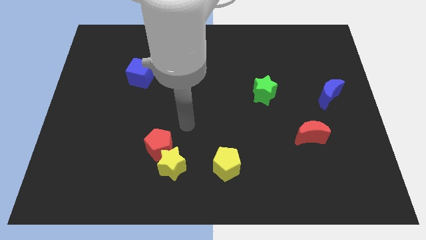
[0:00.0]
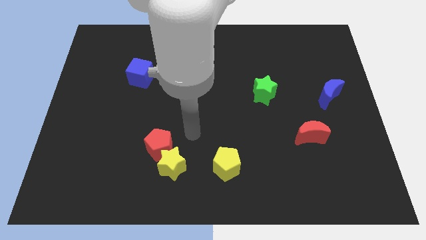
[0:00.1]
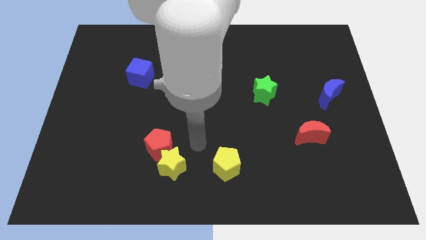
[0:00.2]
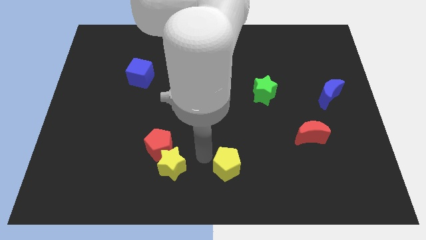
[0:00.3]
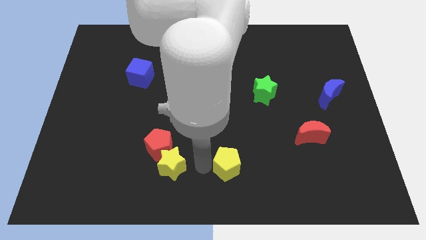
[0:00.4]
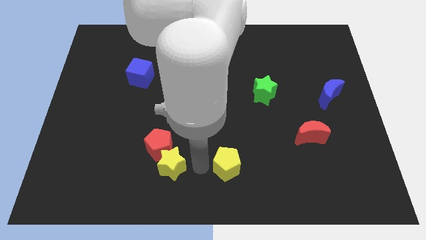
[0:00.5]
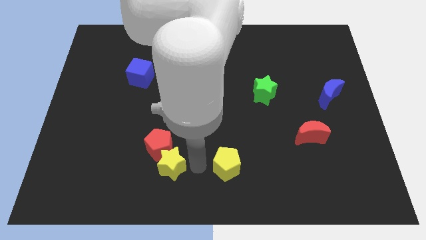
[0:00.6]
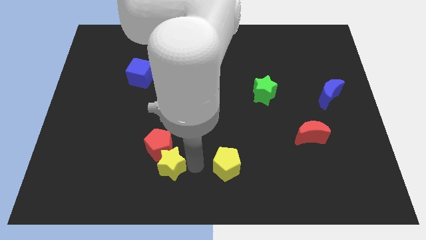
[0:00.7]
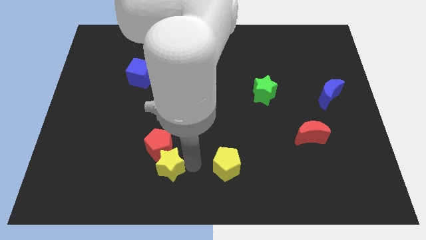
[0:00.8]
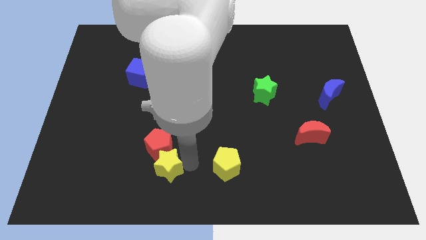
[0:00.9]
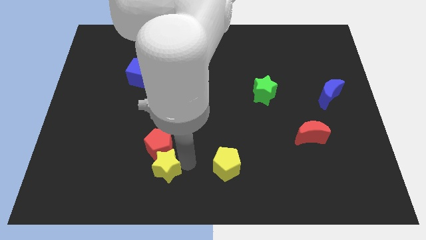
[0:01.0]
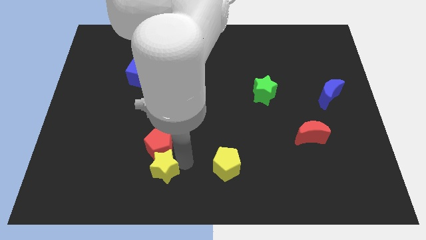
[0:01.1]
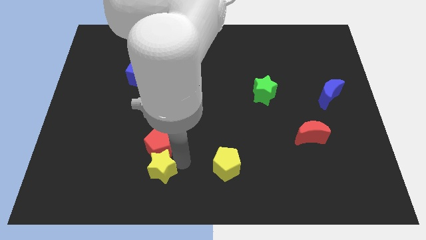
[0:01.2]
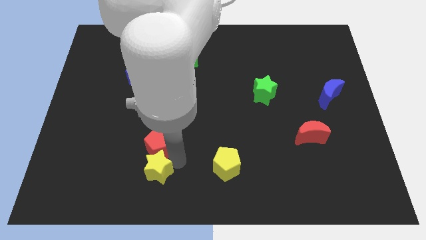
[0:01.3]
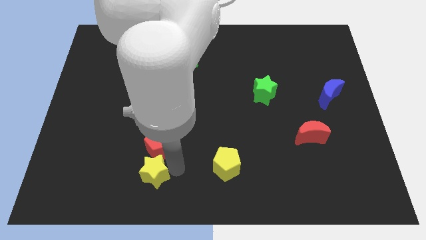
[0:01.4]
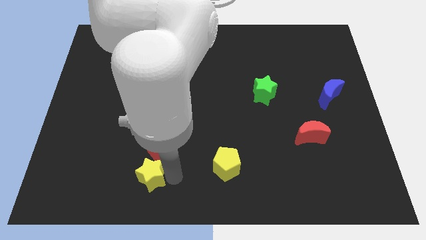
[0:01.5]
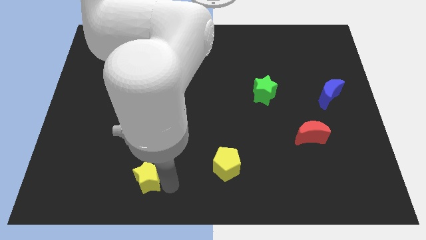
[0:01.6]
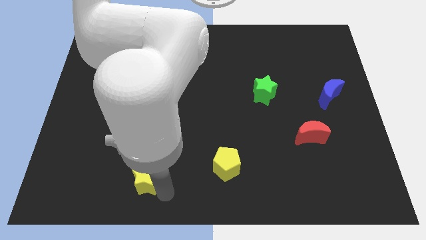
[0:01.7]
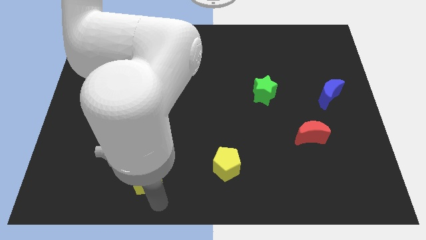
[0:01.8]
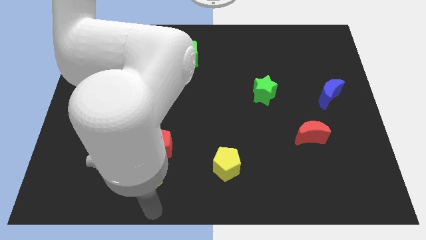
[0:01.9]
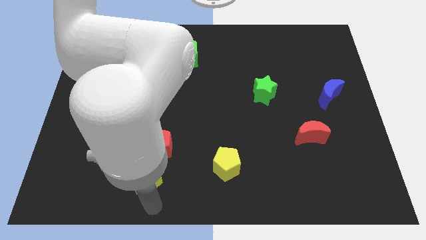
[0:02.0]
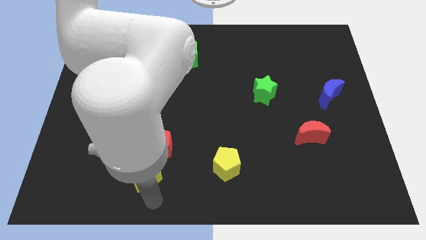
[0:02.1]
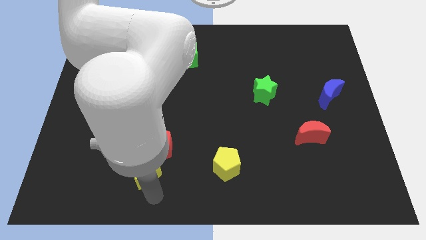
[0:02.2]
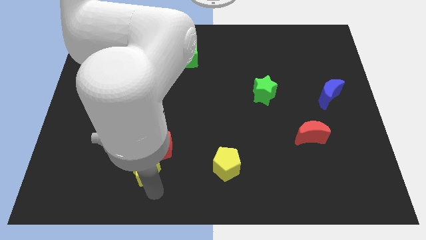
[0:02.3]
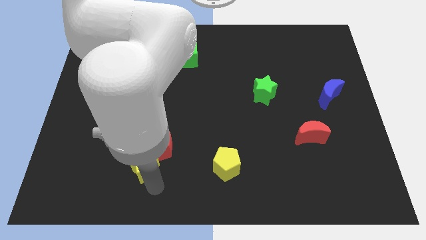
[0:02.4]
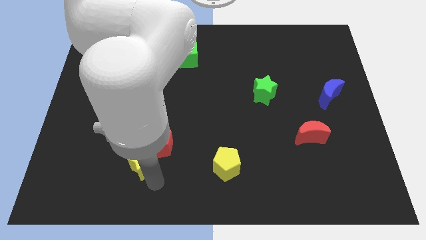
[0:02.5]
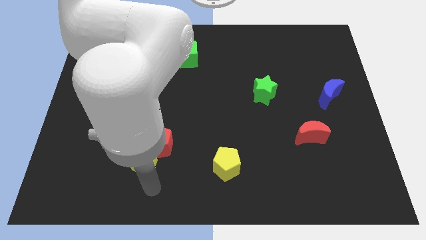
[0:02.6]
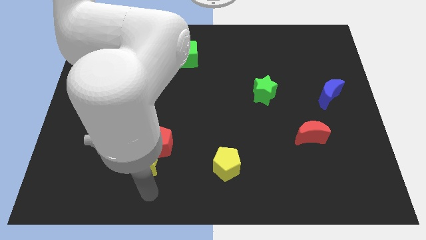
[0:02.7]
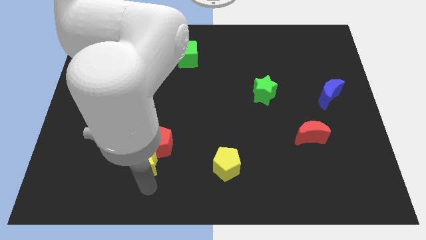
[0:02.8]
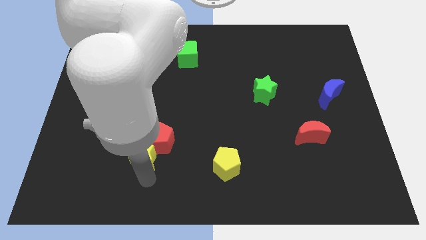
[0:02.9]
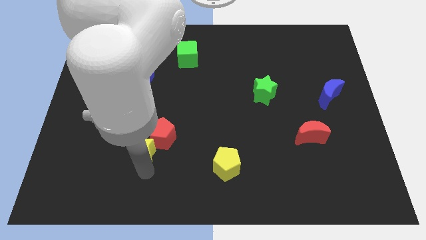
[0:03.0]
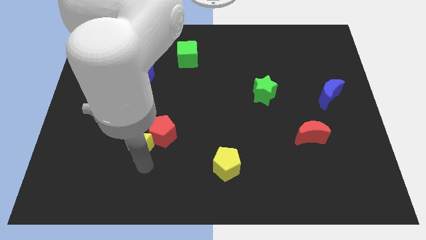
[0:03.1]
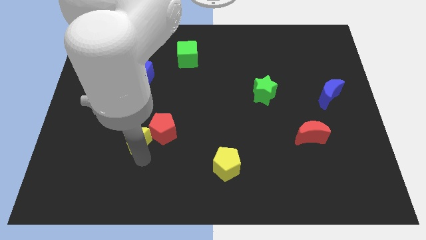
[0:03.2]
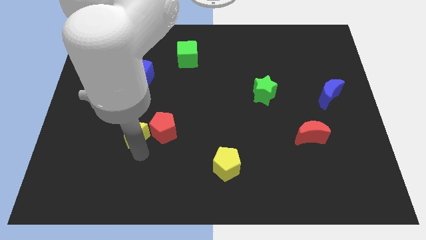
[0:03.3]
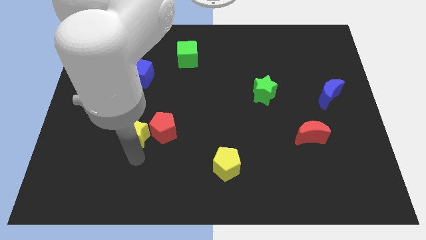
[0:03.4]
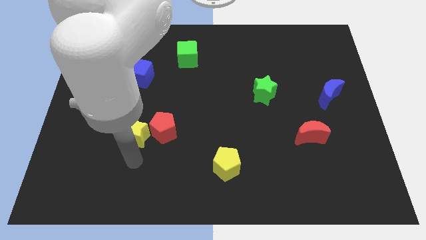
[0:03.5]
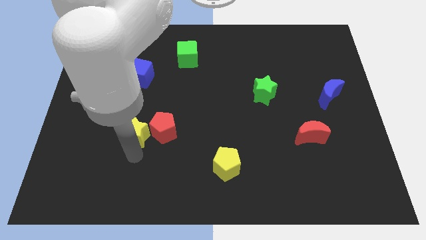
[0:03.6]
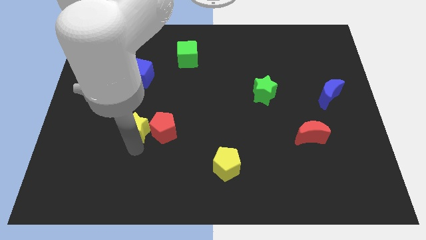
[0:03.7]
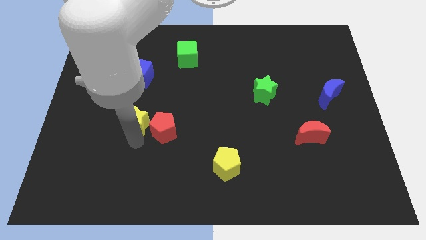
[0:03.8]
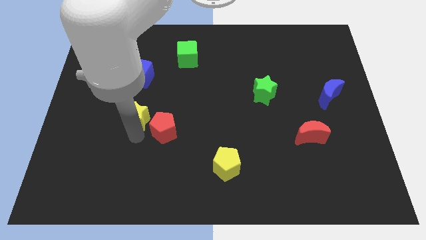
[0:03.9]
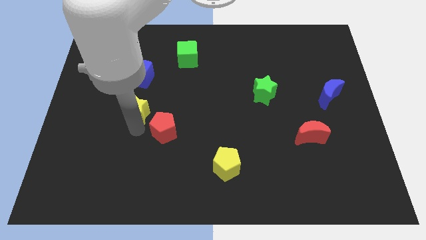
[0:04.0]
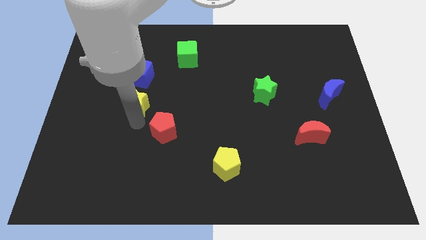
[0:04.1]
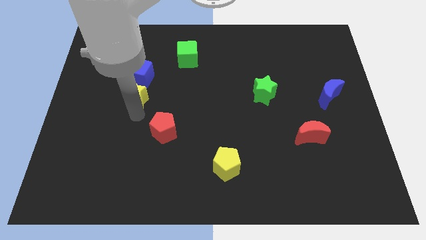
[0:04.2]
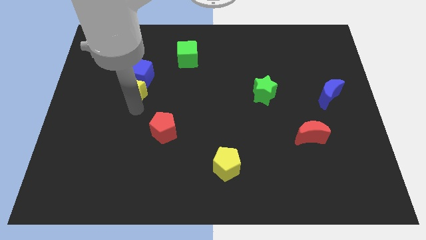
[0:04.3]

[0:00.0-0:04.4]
put the yellow star next to the blue cube

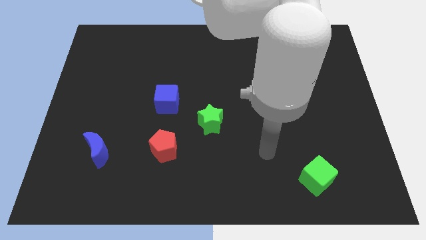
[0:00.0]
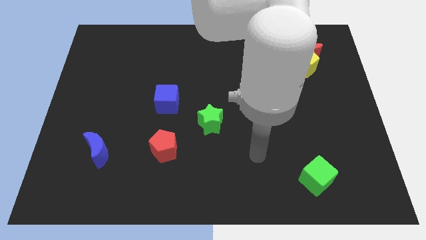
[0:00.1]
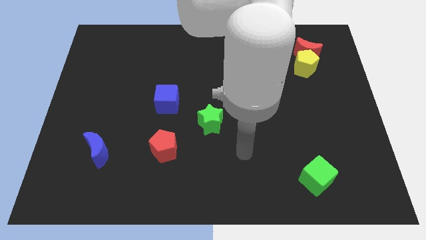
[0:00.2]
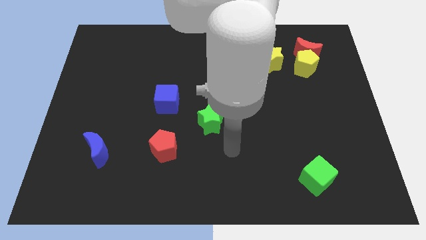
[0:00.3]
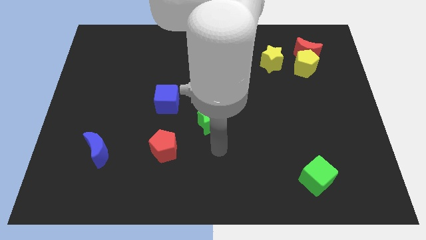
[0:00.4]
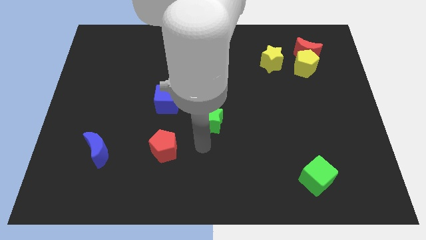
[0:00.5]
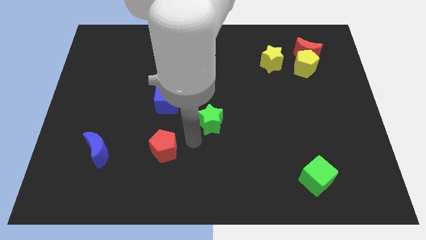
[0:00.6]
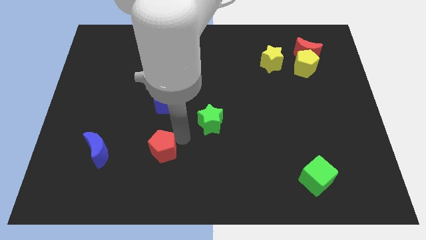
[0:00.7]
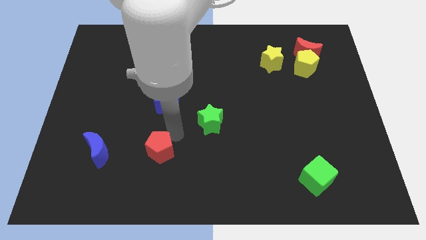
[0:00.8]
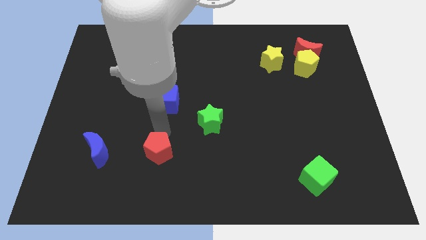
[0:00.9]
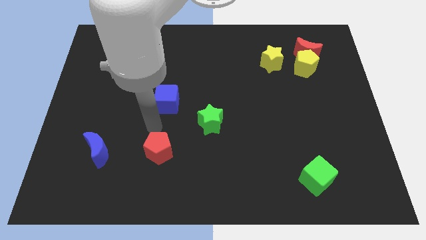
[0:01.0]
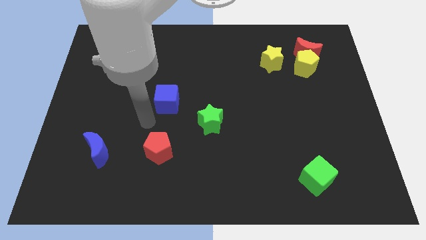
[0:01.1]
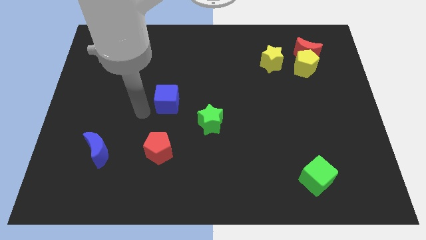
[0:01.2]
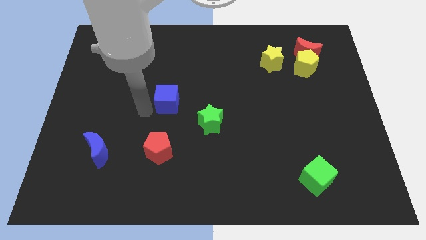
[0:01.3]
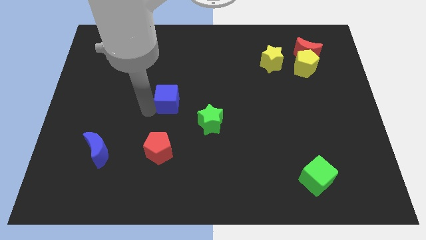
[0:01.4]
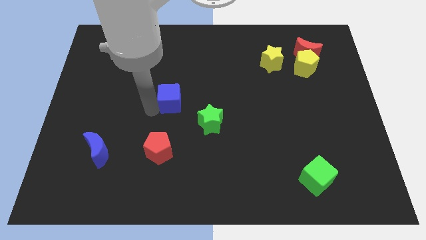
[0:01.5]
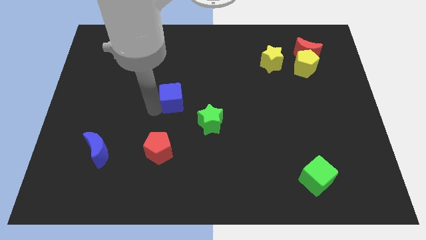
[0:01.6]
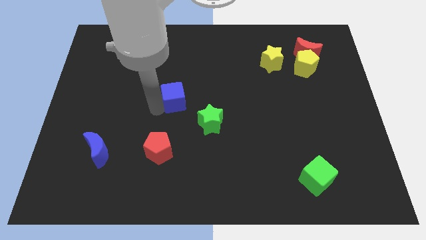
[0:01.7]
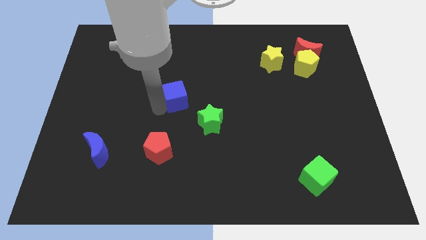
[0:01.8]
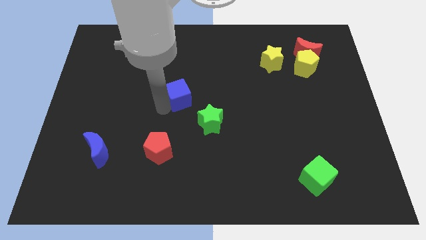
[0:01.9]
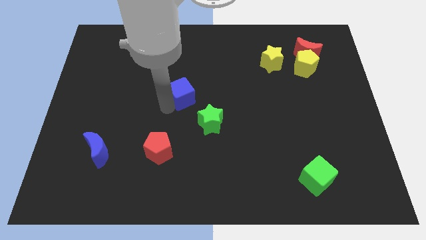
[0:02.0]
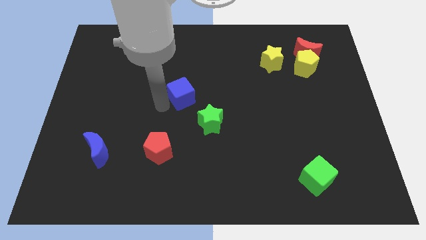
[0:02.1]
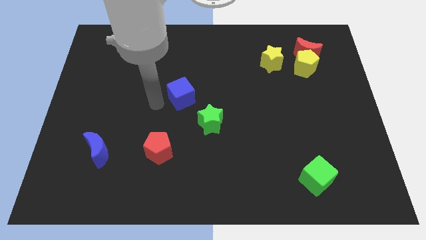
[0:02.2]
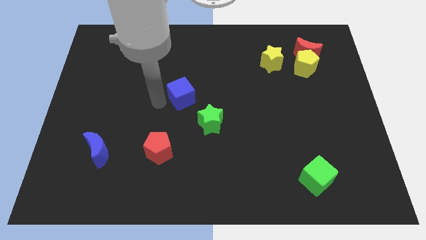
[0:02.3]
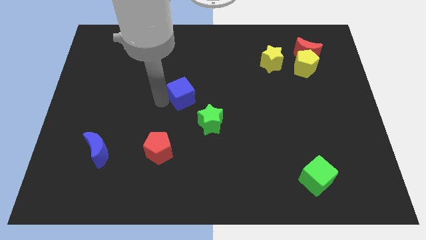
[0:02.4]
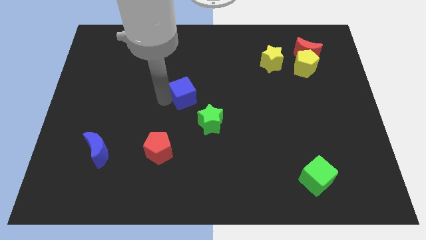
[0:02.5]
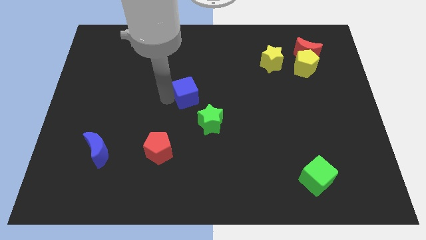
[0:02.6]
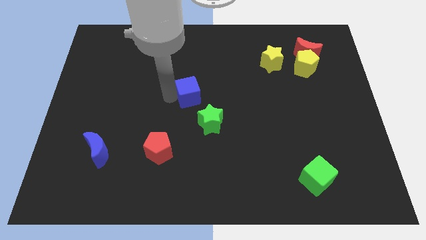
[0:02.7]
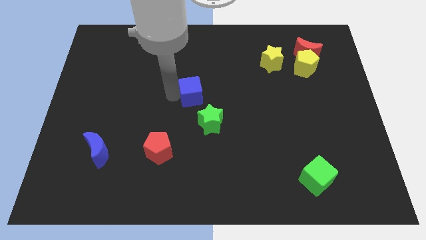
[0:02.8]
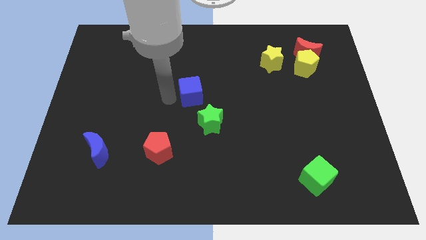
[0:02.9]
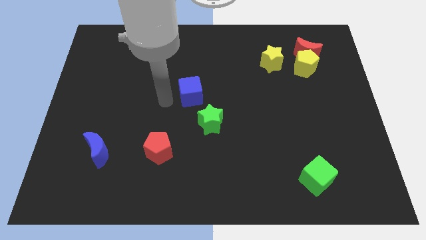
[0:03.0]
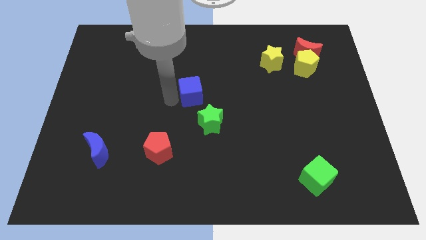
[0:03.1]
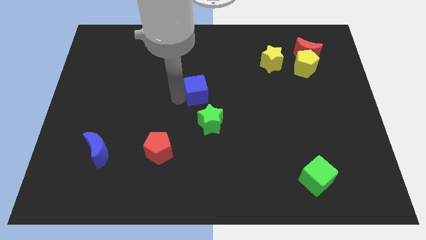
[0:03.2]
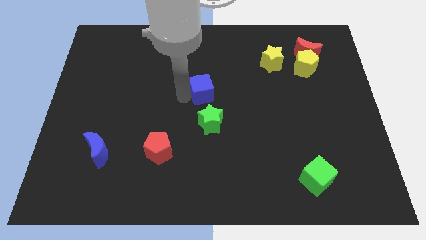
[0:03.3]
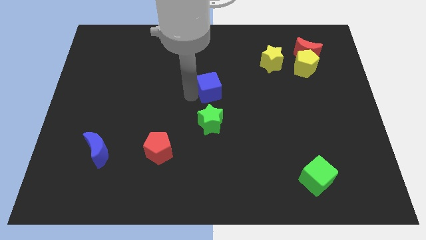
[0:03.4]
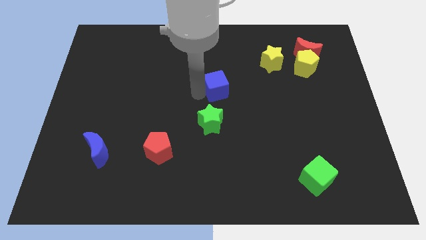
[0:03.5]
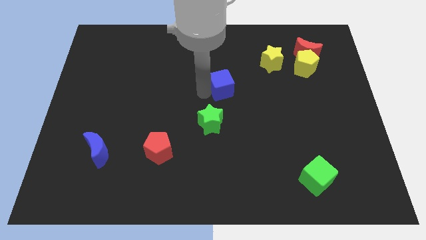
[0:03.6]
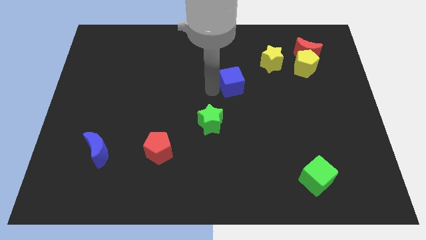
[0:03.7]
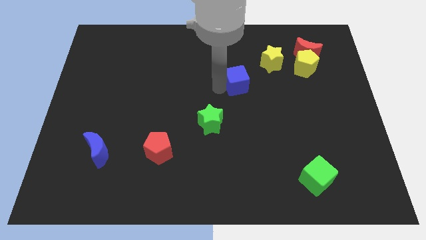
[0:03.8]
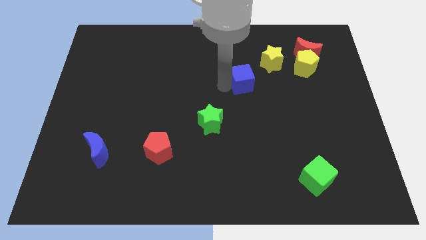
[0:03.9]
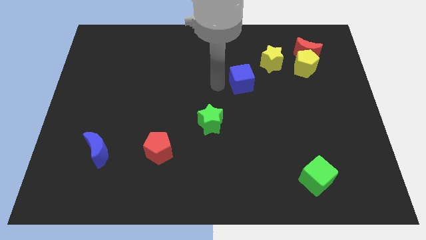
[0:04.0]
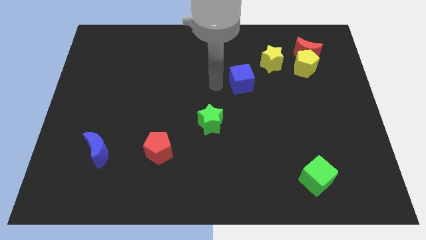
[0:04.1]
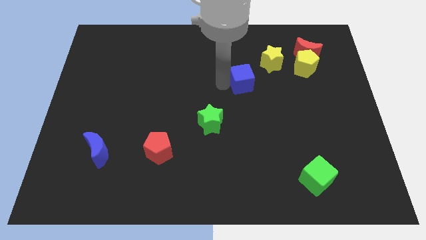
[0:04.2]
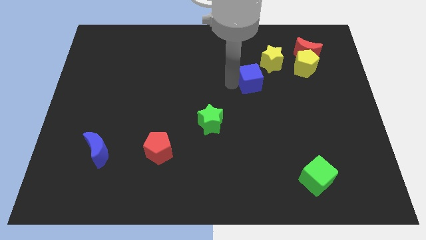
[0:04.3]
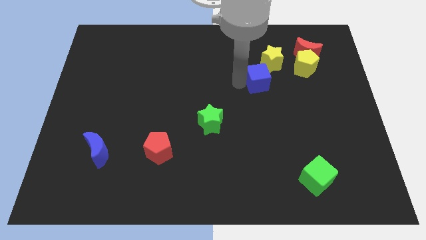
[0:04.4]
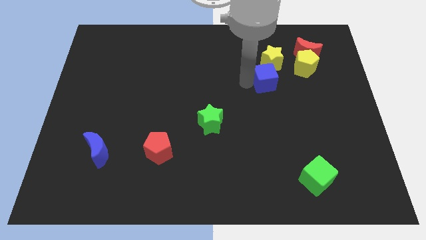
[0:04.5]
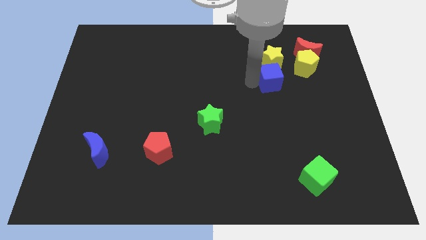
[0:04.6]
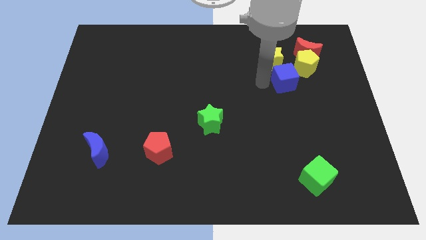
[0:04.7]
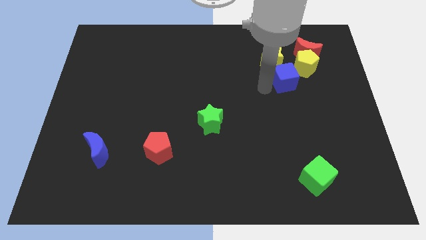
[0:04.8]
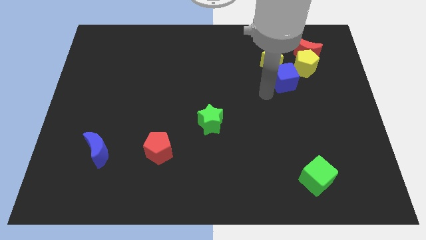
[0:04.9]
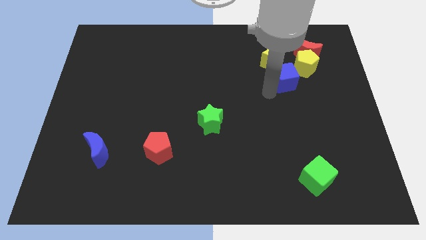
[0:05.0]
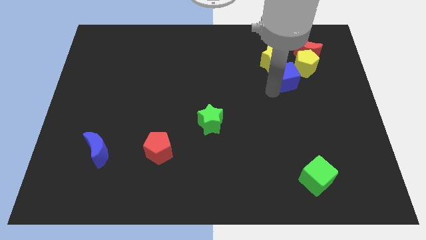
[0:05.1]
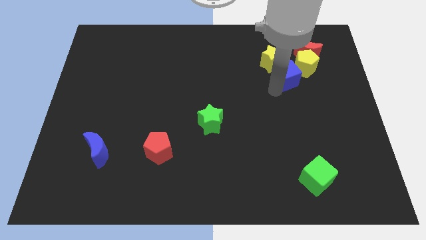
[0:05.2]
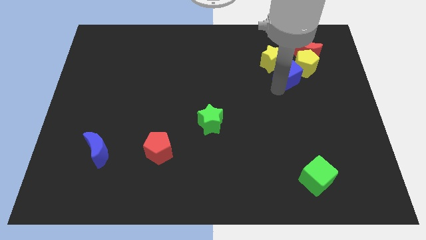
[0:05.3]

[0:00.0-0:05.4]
push the blue cube close to the yellow pentagon
